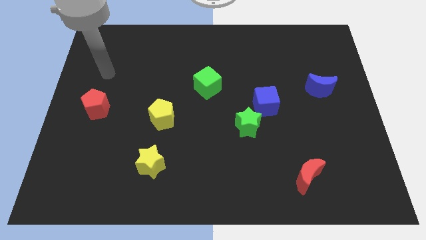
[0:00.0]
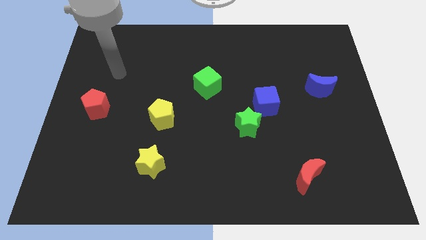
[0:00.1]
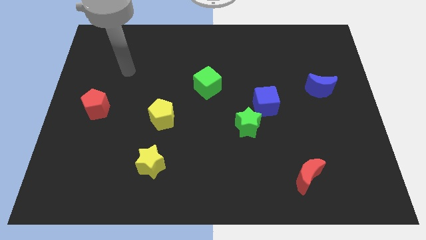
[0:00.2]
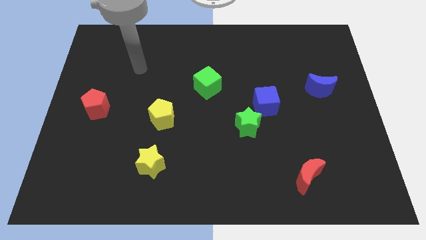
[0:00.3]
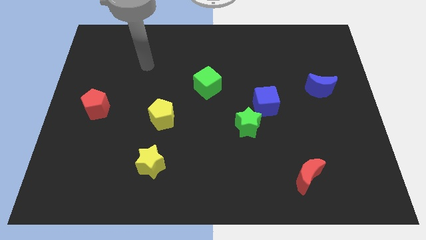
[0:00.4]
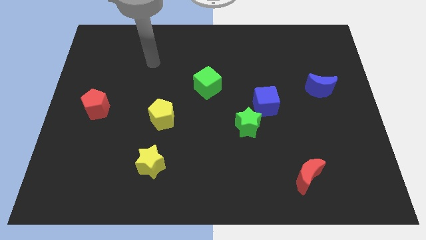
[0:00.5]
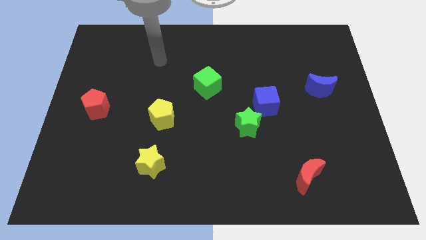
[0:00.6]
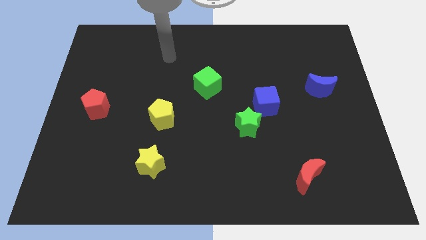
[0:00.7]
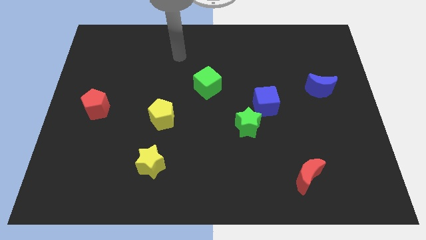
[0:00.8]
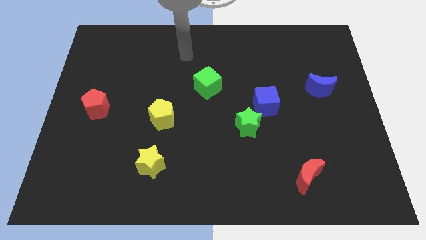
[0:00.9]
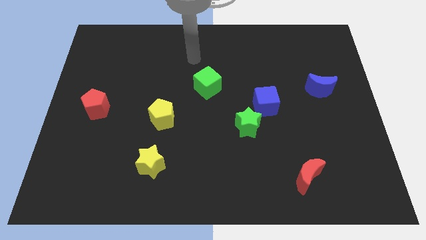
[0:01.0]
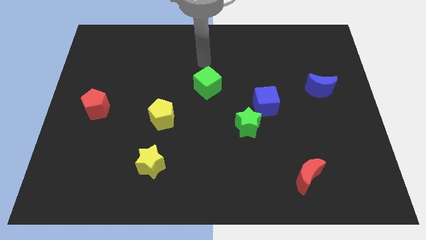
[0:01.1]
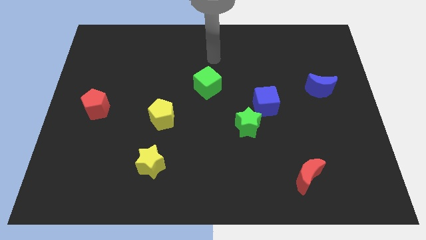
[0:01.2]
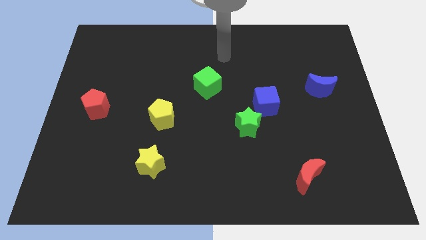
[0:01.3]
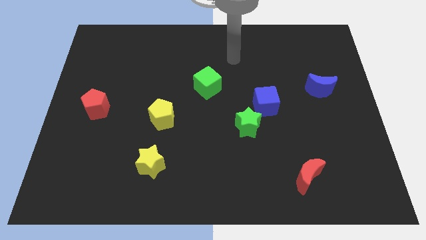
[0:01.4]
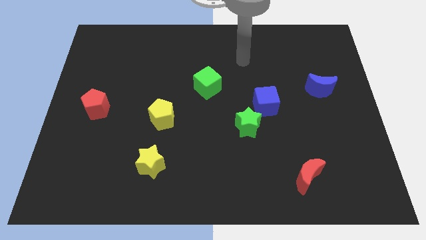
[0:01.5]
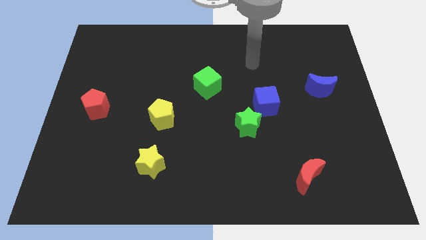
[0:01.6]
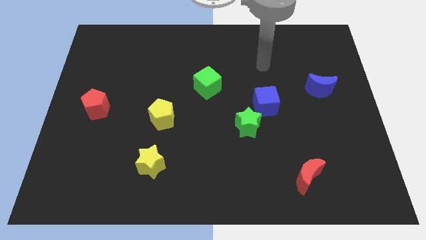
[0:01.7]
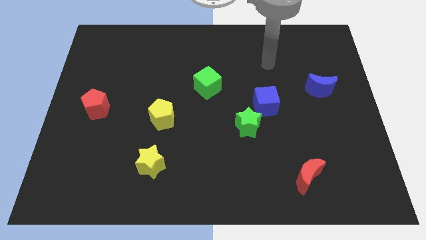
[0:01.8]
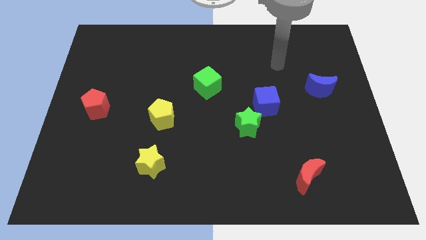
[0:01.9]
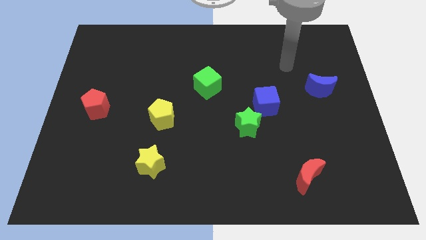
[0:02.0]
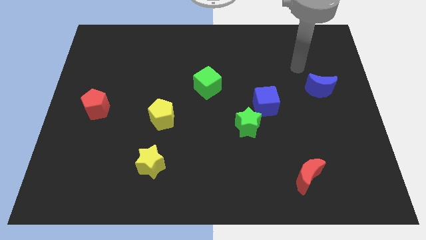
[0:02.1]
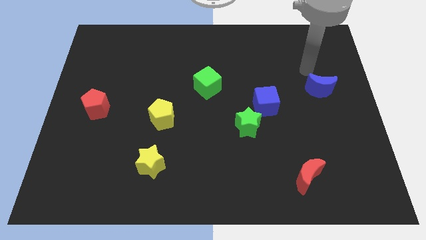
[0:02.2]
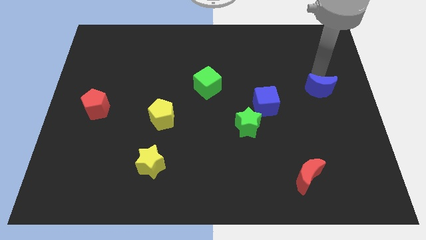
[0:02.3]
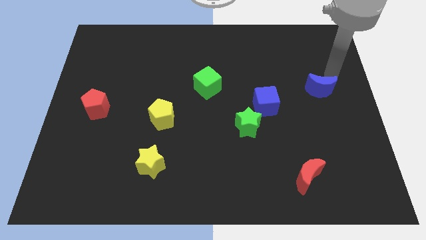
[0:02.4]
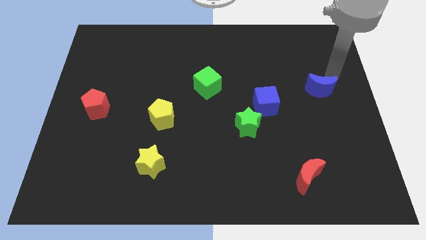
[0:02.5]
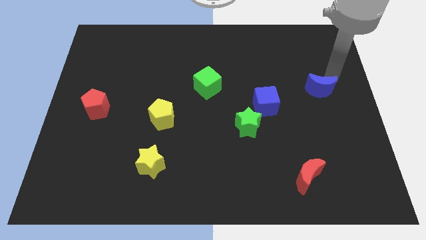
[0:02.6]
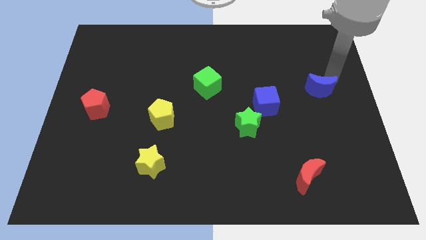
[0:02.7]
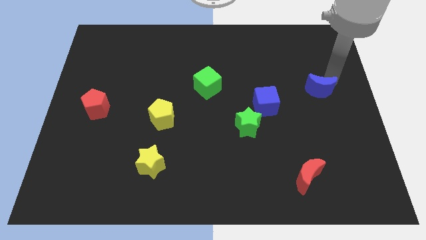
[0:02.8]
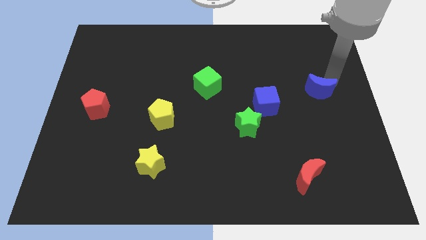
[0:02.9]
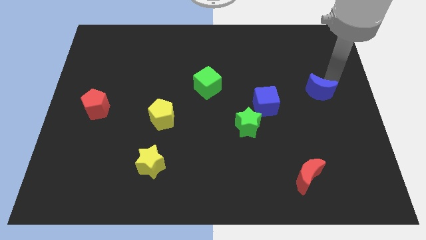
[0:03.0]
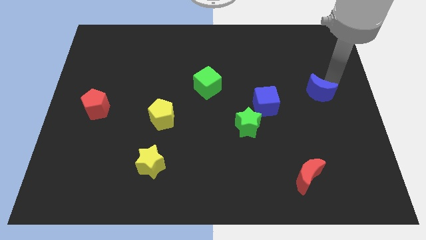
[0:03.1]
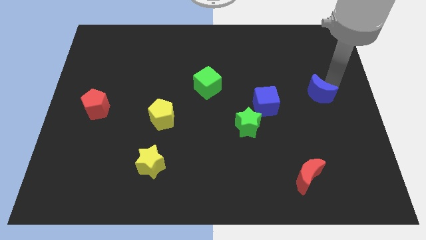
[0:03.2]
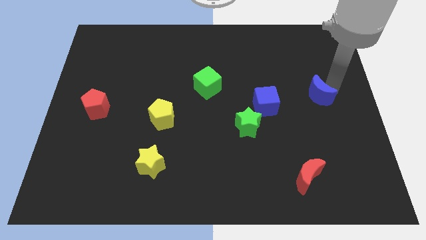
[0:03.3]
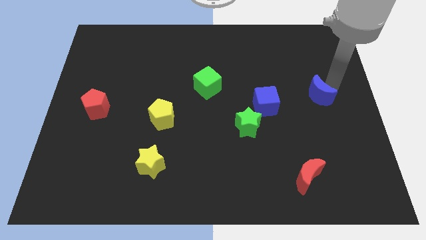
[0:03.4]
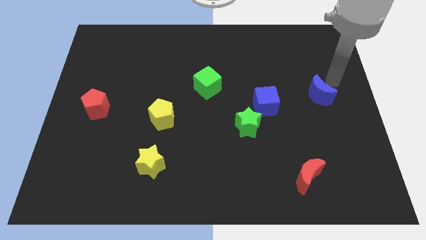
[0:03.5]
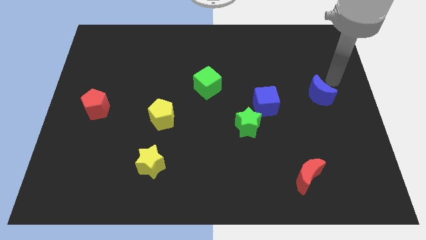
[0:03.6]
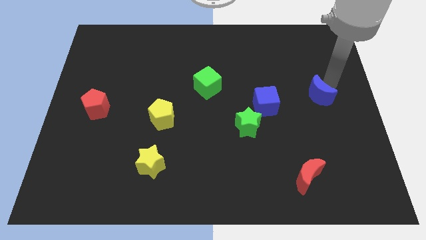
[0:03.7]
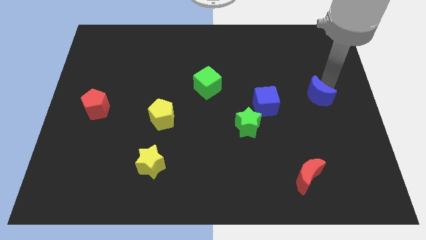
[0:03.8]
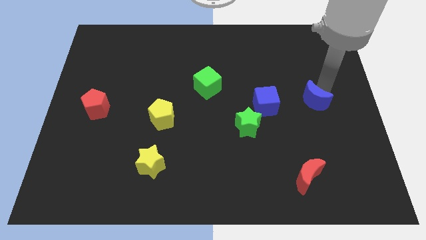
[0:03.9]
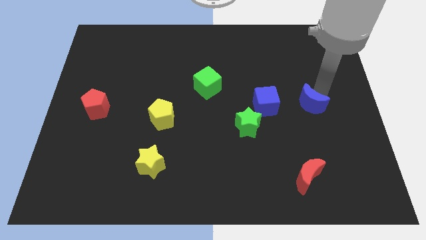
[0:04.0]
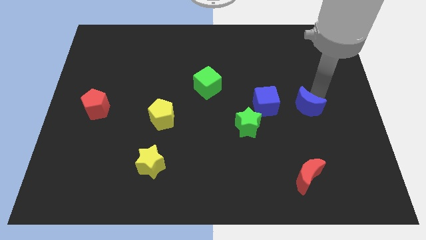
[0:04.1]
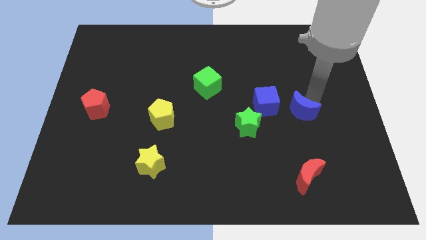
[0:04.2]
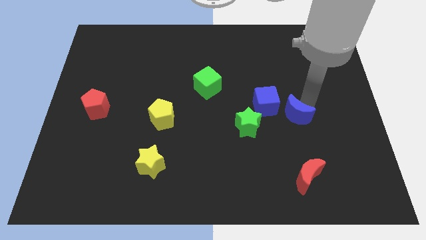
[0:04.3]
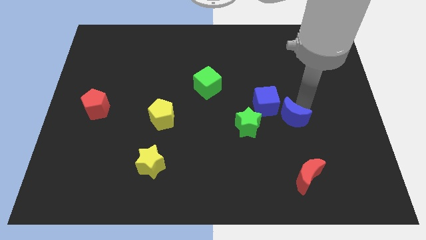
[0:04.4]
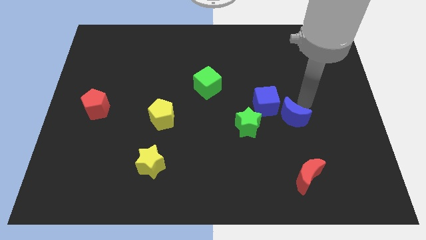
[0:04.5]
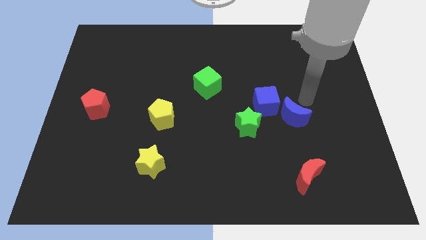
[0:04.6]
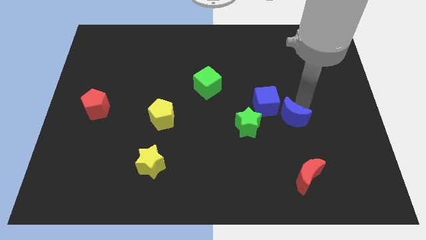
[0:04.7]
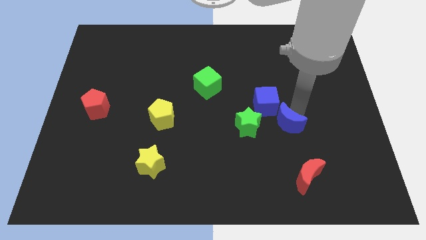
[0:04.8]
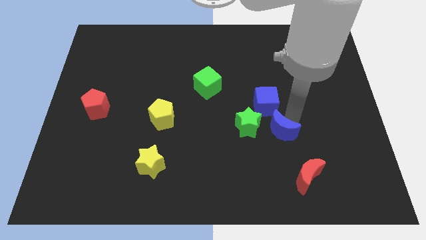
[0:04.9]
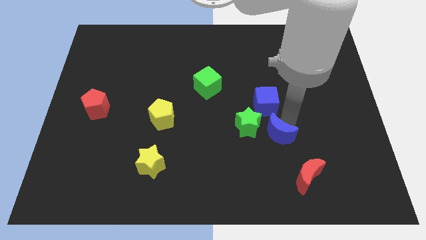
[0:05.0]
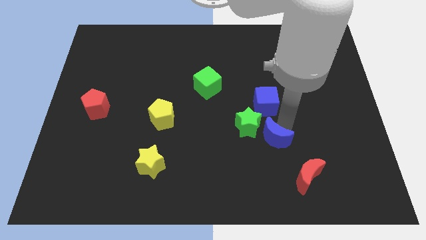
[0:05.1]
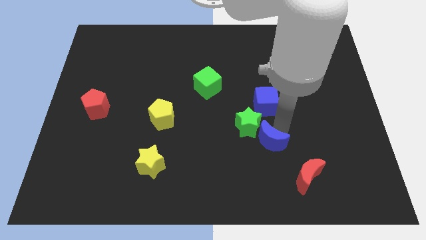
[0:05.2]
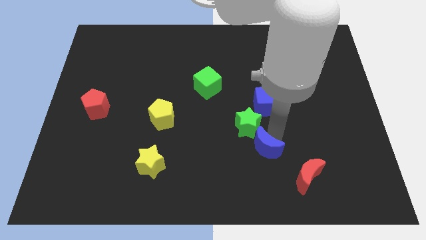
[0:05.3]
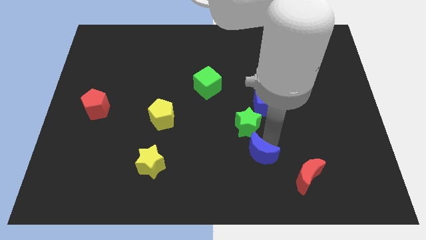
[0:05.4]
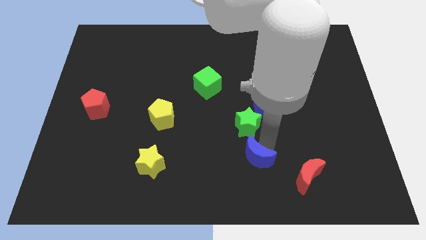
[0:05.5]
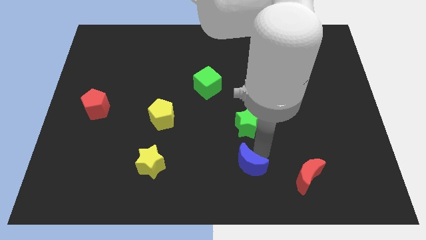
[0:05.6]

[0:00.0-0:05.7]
move the blue moon to the bottom

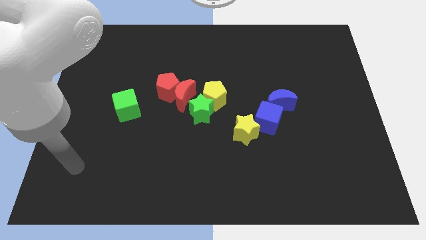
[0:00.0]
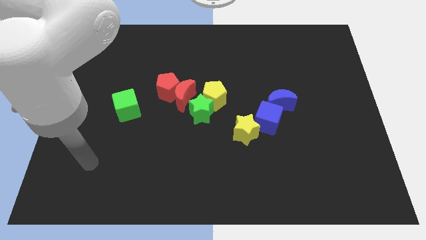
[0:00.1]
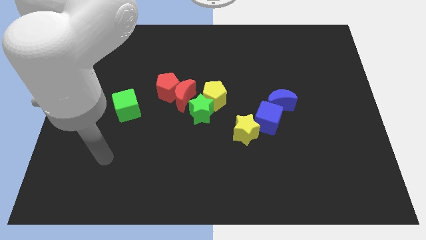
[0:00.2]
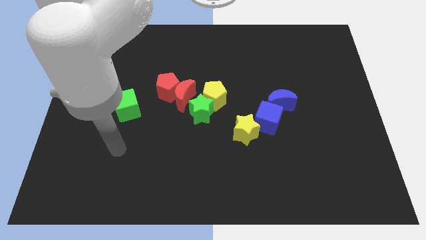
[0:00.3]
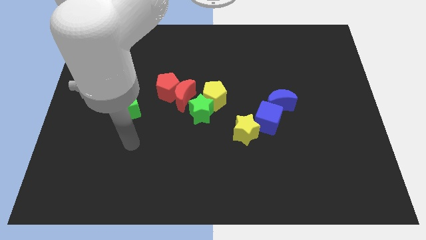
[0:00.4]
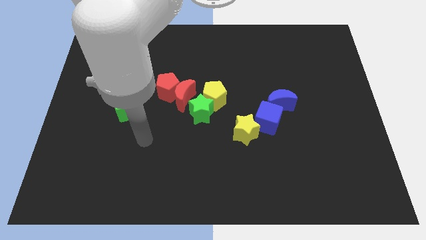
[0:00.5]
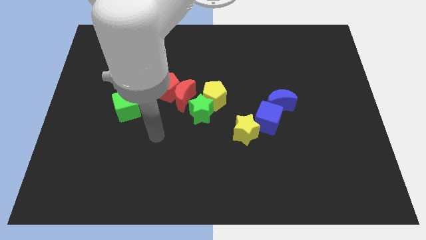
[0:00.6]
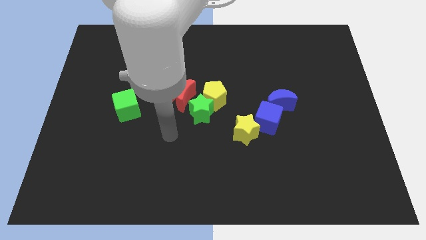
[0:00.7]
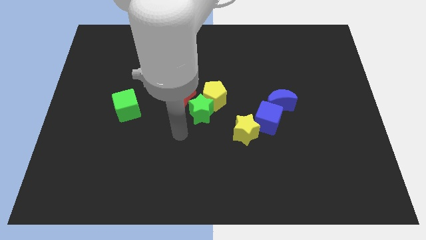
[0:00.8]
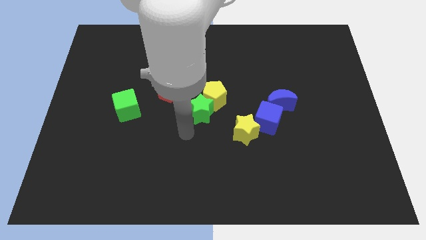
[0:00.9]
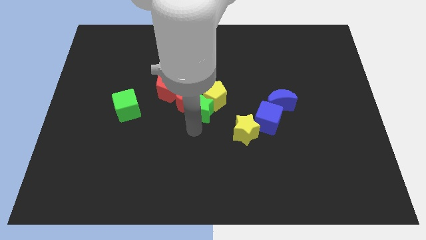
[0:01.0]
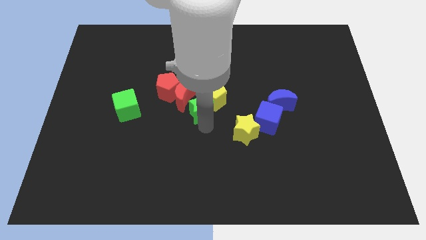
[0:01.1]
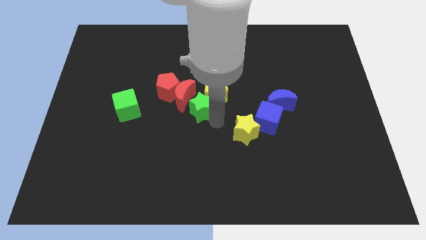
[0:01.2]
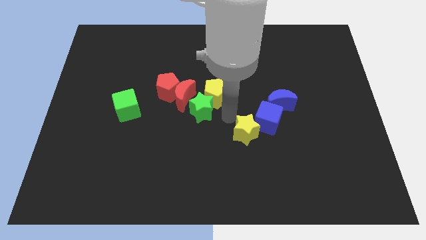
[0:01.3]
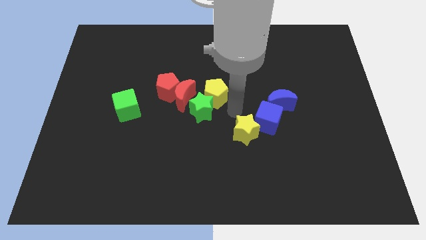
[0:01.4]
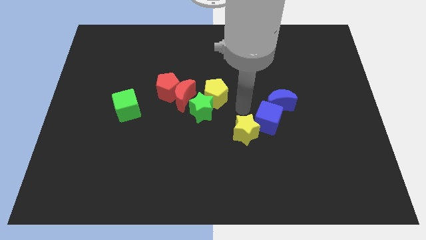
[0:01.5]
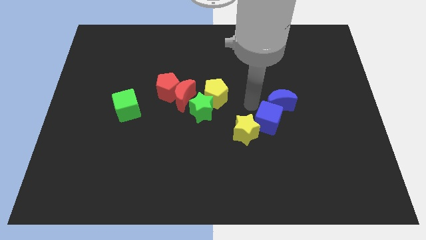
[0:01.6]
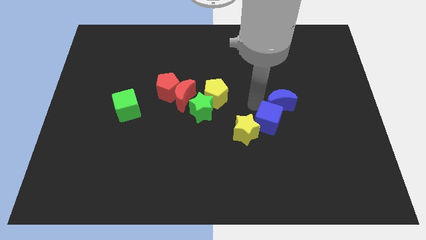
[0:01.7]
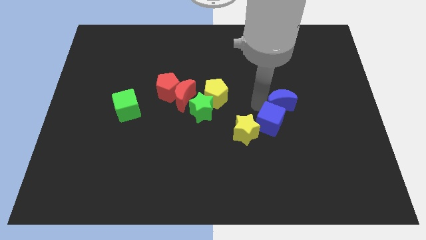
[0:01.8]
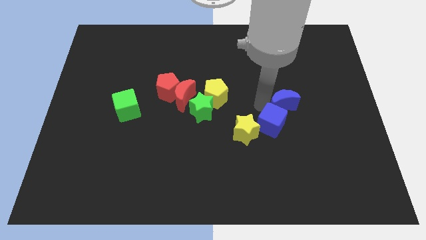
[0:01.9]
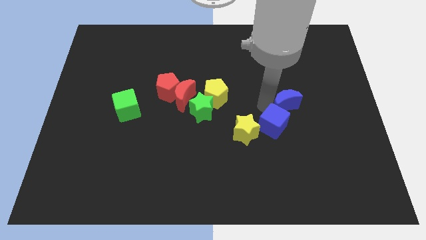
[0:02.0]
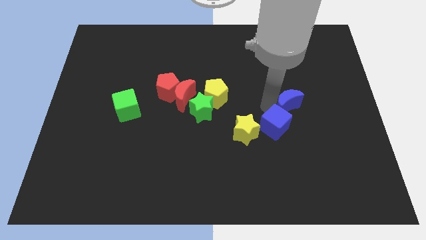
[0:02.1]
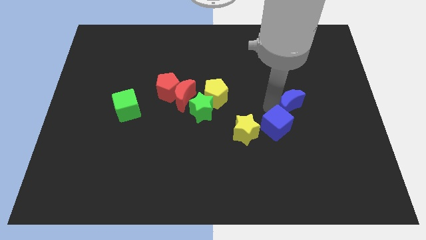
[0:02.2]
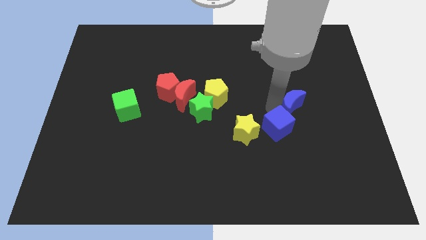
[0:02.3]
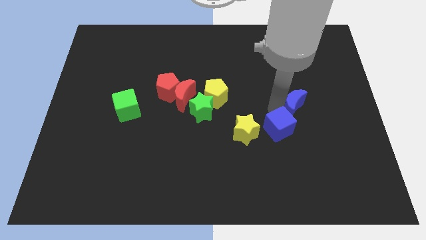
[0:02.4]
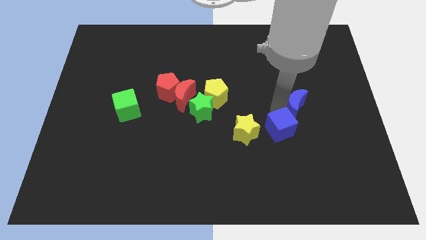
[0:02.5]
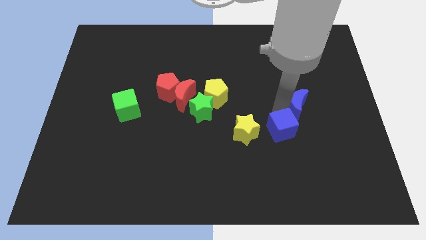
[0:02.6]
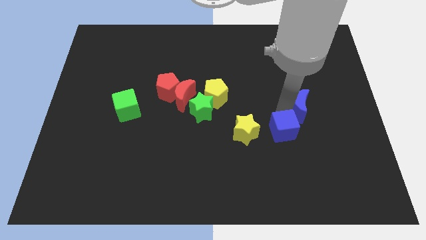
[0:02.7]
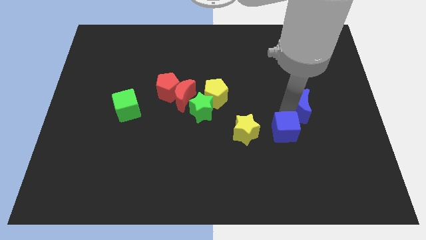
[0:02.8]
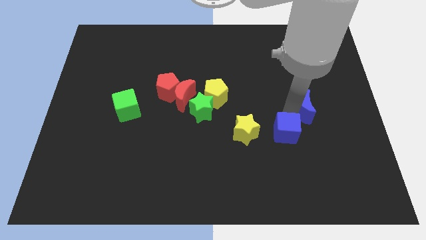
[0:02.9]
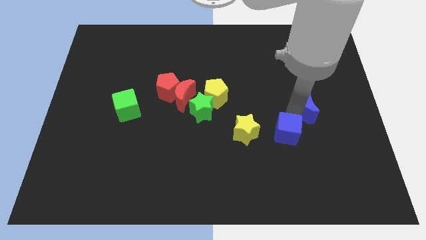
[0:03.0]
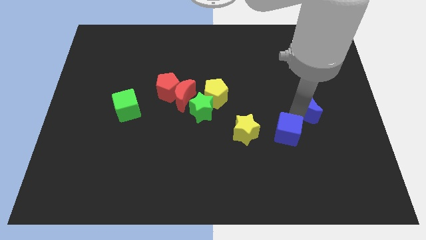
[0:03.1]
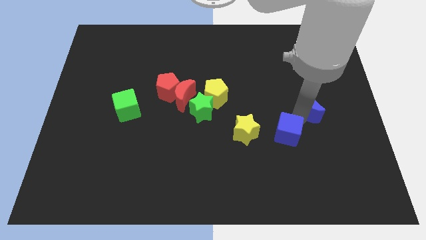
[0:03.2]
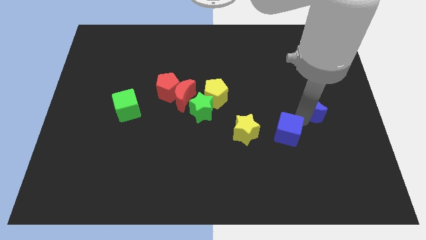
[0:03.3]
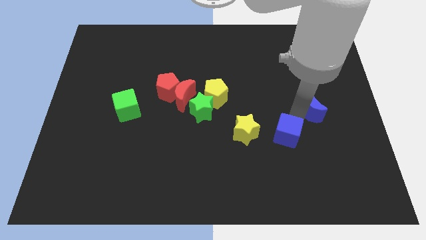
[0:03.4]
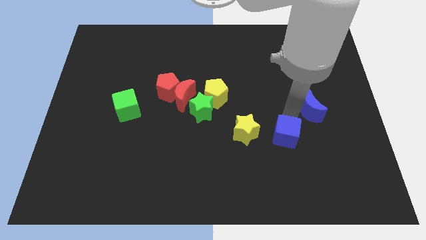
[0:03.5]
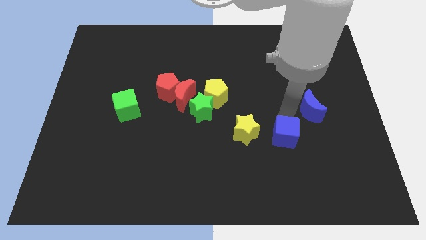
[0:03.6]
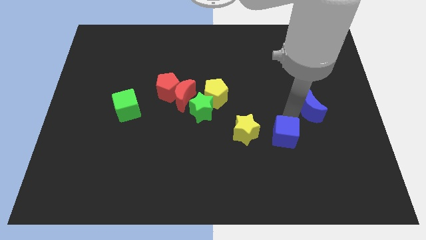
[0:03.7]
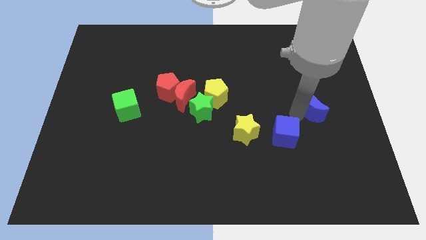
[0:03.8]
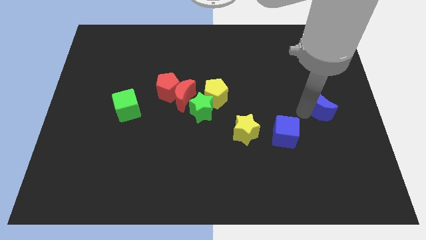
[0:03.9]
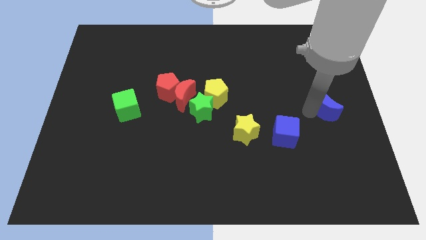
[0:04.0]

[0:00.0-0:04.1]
move the blue moon to the right side
